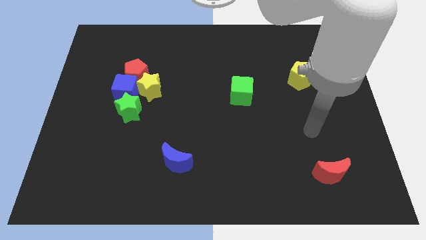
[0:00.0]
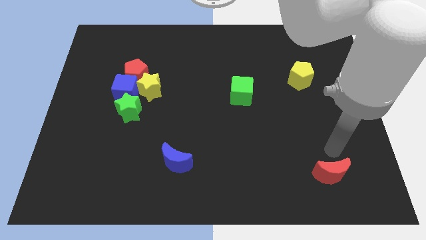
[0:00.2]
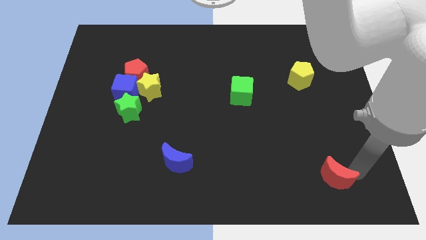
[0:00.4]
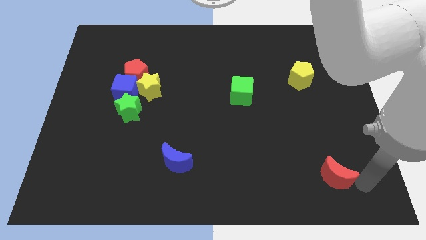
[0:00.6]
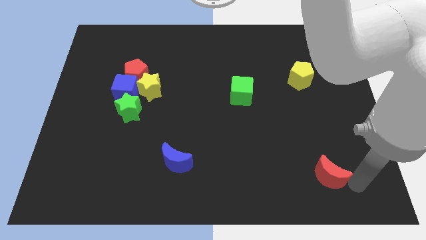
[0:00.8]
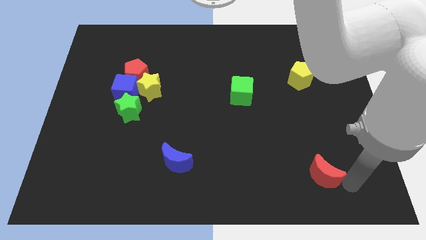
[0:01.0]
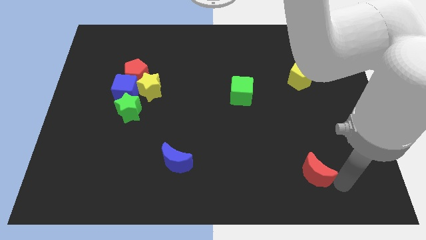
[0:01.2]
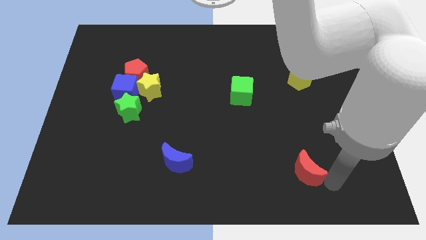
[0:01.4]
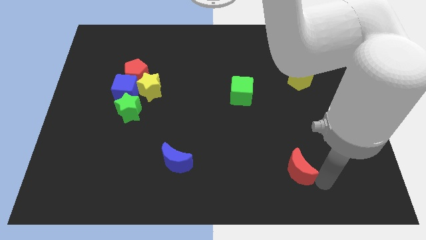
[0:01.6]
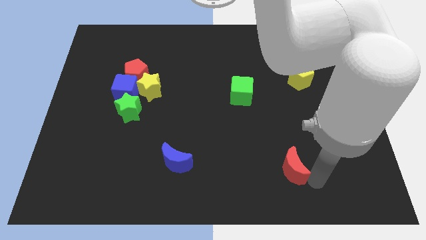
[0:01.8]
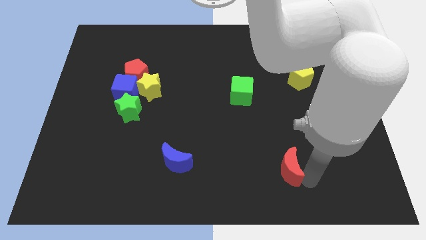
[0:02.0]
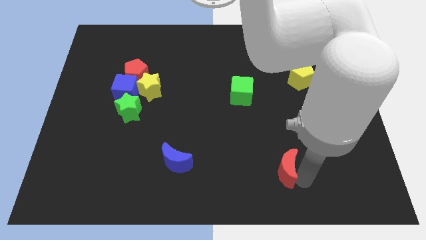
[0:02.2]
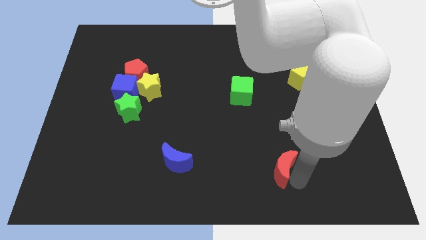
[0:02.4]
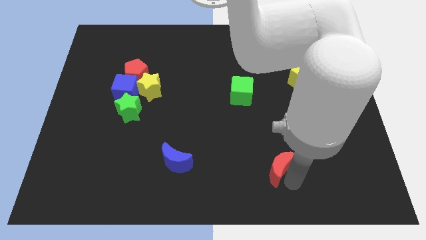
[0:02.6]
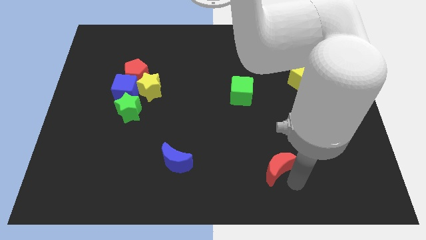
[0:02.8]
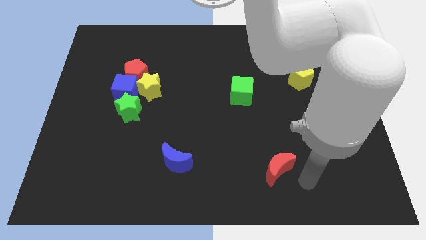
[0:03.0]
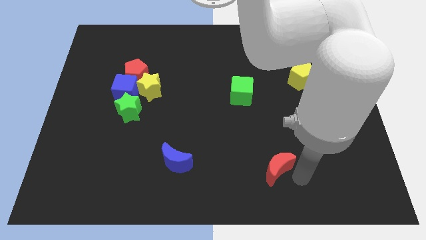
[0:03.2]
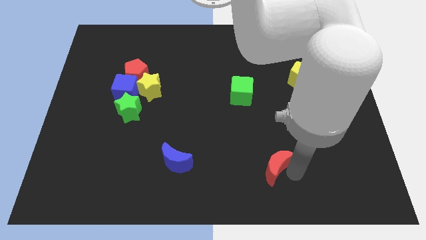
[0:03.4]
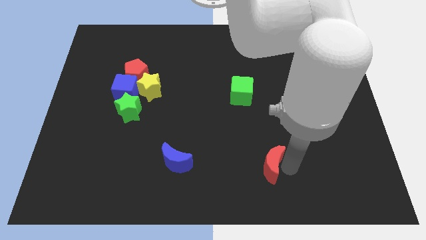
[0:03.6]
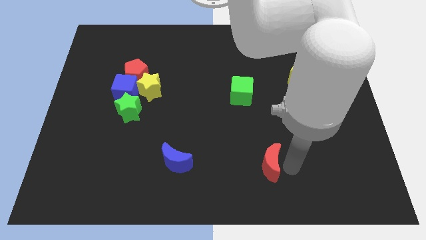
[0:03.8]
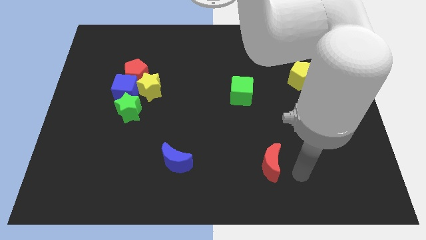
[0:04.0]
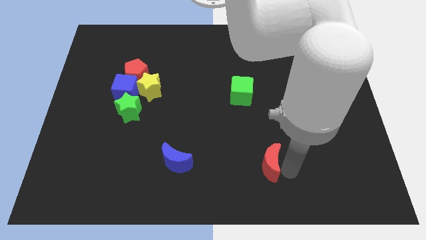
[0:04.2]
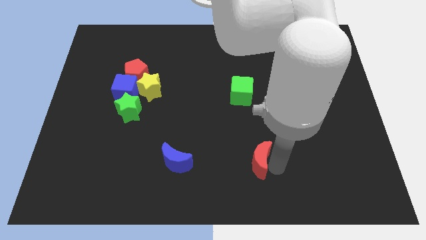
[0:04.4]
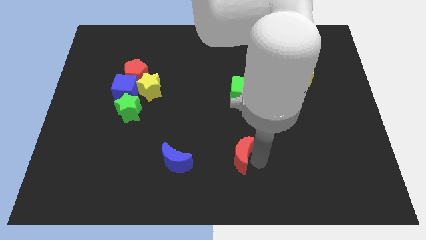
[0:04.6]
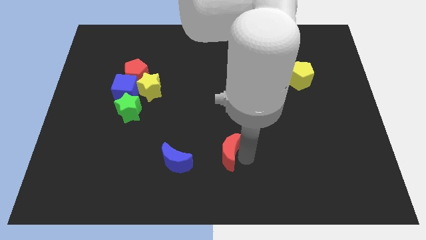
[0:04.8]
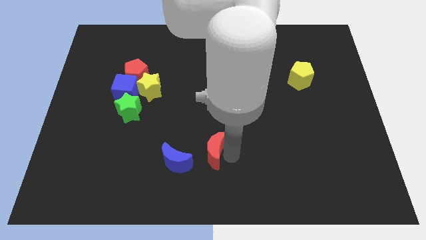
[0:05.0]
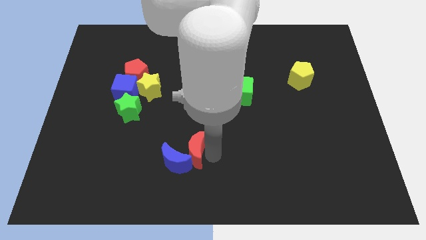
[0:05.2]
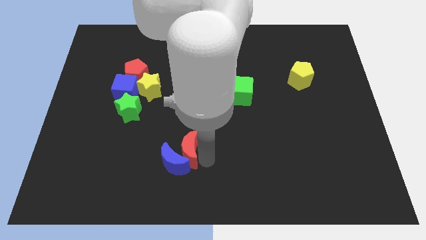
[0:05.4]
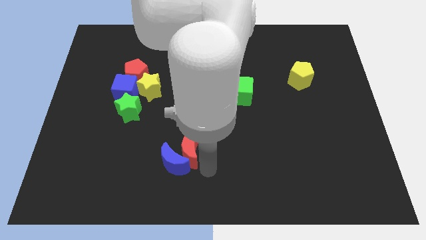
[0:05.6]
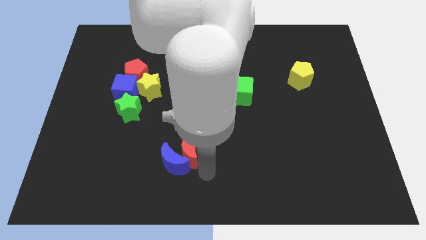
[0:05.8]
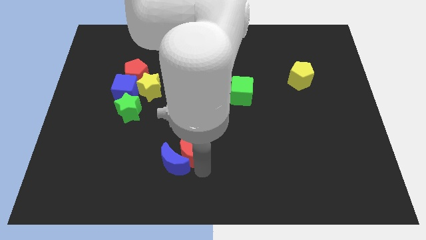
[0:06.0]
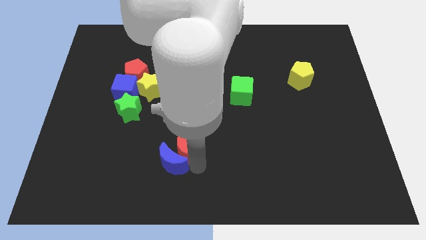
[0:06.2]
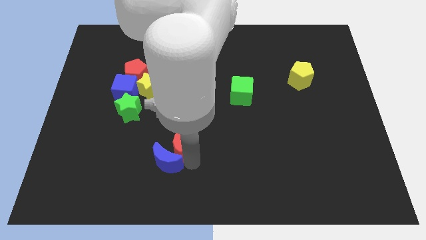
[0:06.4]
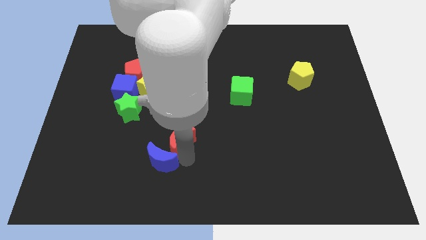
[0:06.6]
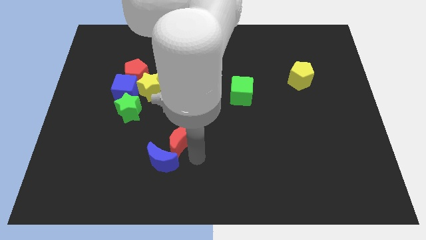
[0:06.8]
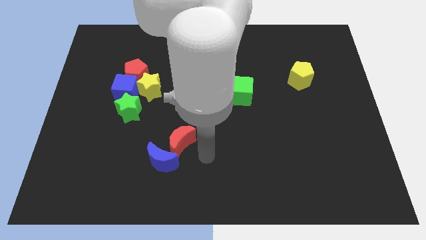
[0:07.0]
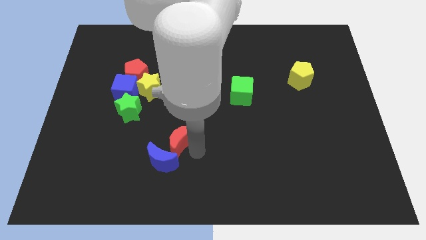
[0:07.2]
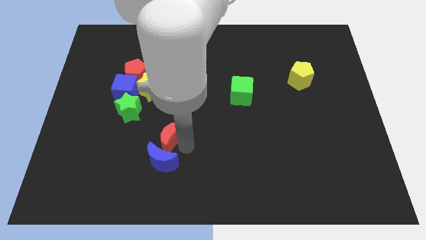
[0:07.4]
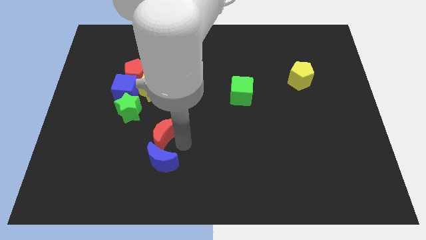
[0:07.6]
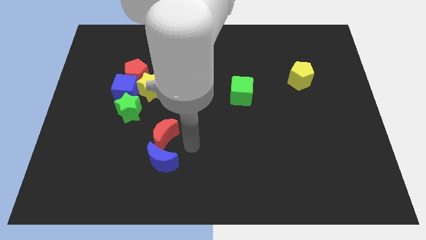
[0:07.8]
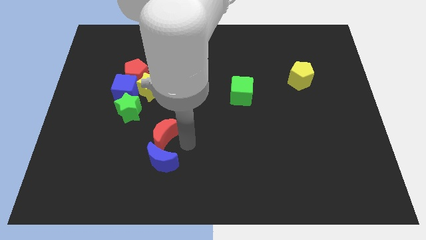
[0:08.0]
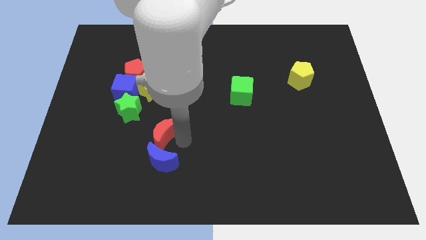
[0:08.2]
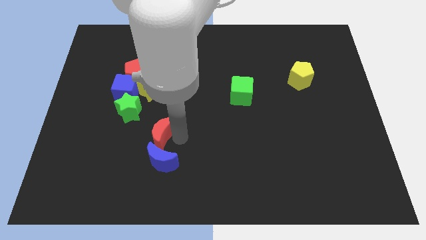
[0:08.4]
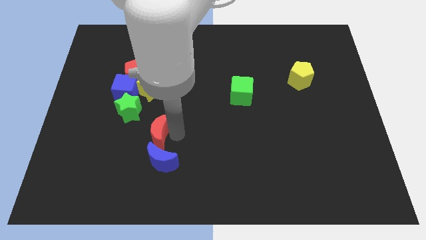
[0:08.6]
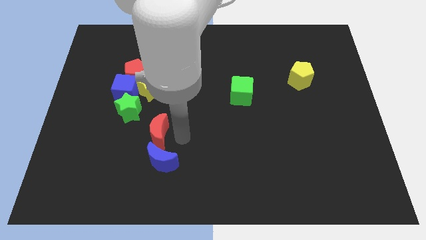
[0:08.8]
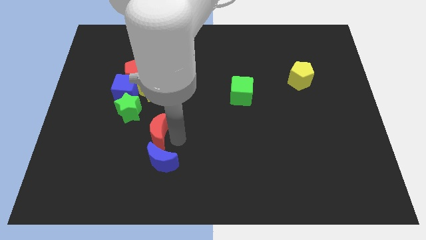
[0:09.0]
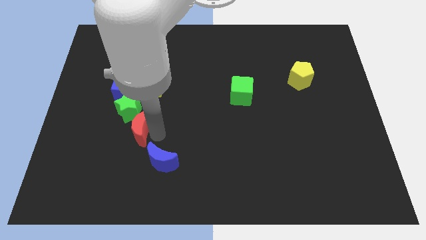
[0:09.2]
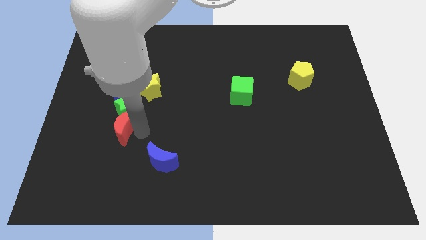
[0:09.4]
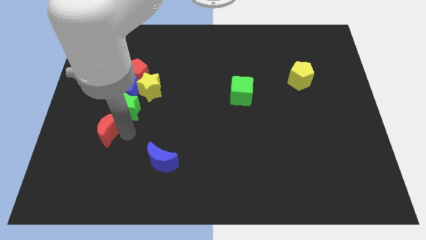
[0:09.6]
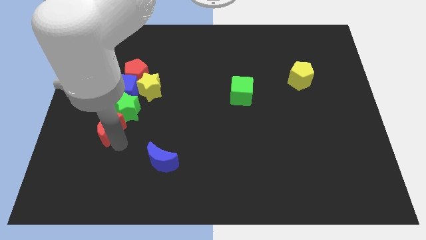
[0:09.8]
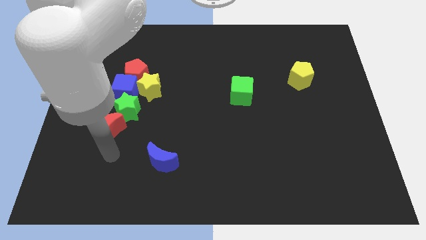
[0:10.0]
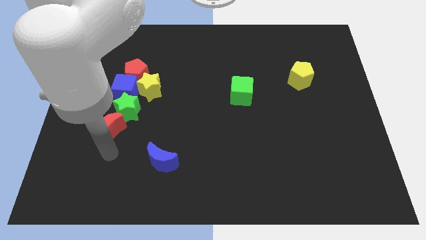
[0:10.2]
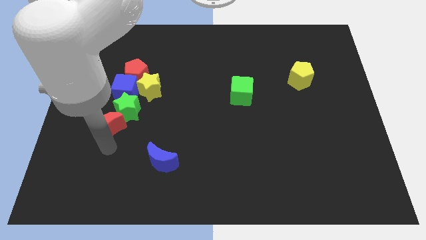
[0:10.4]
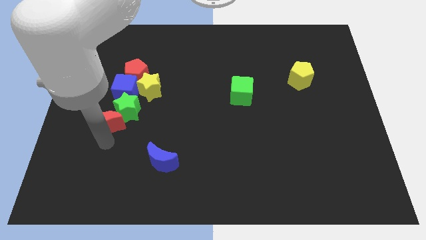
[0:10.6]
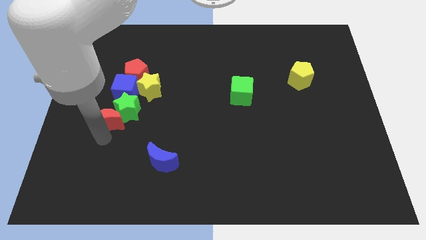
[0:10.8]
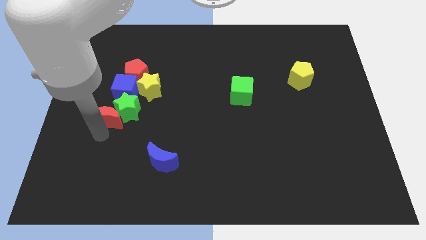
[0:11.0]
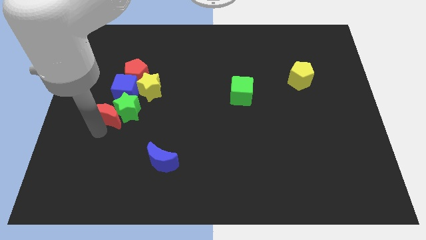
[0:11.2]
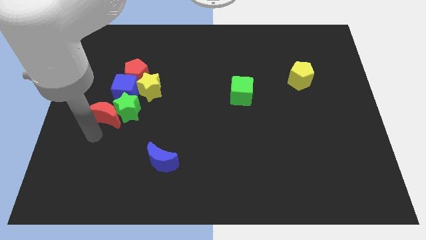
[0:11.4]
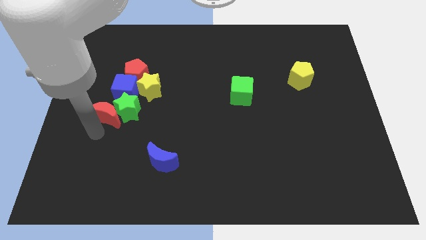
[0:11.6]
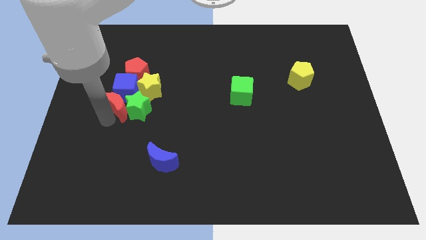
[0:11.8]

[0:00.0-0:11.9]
move the red moon to the blue cube
